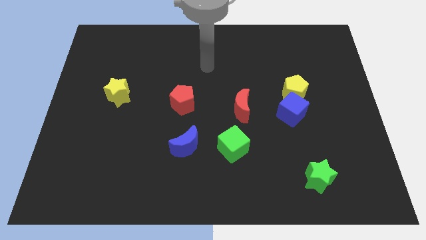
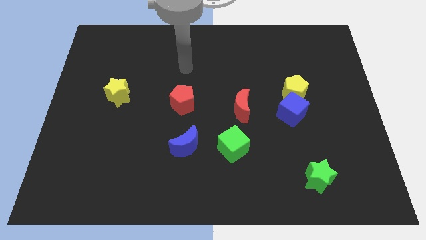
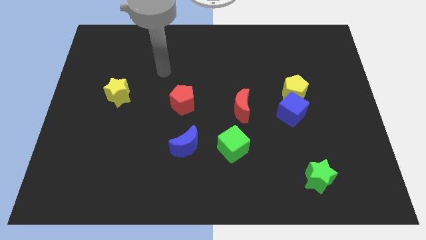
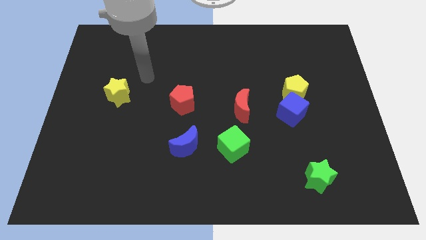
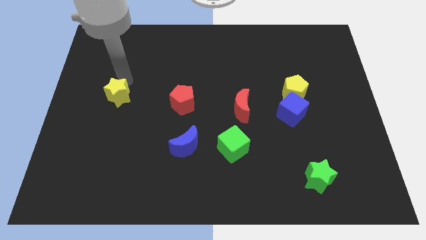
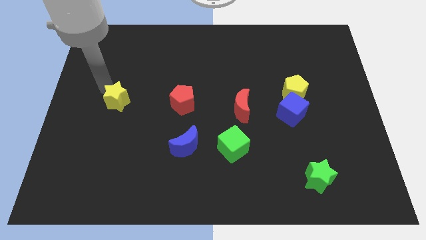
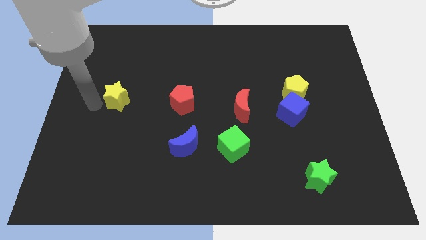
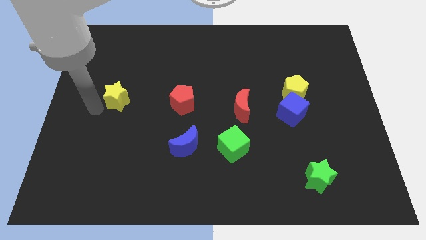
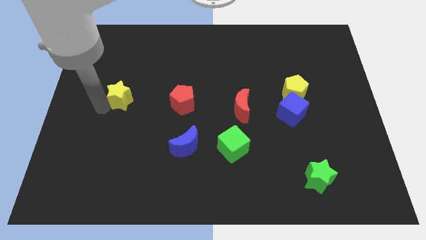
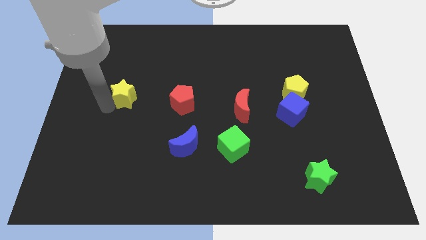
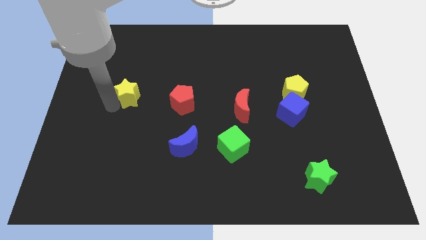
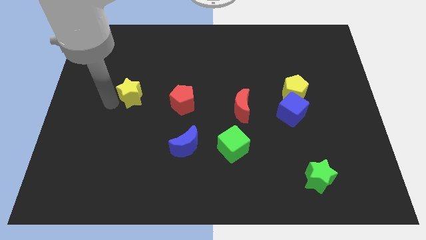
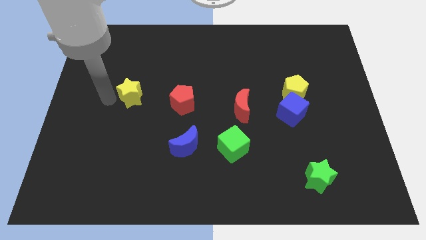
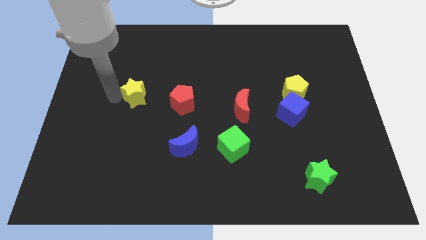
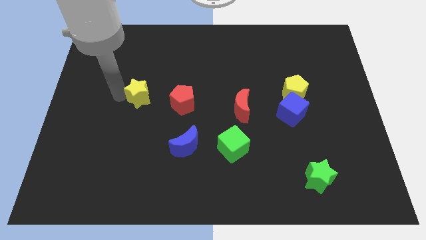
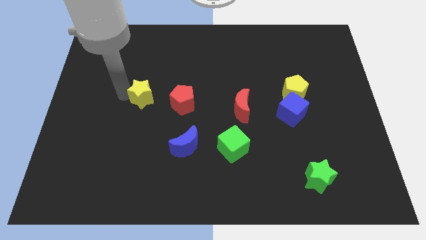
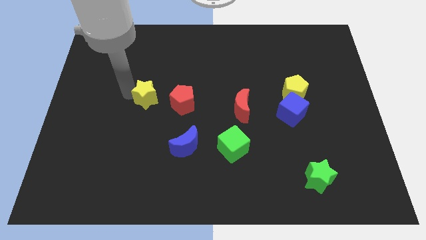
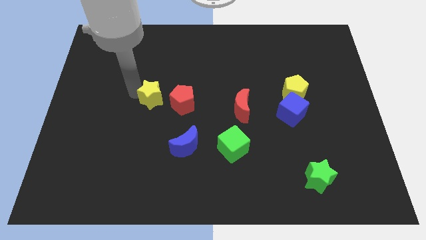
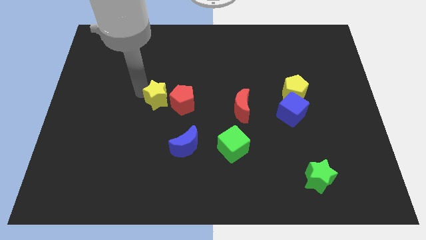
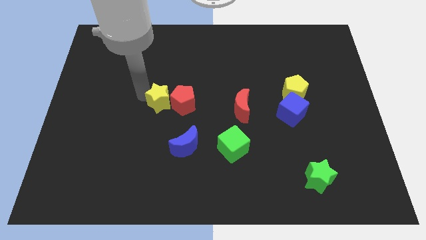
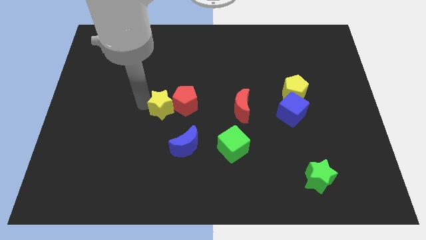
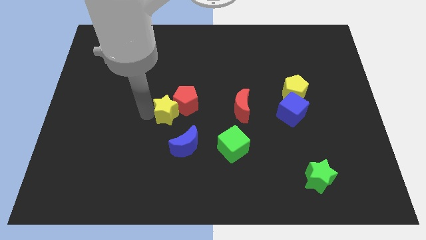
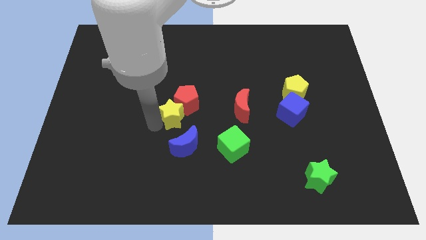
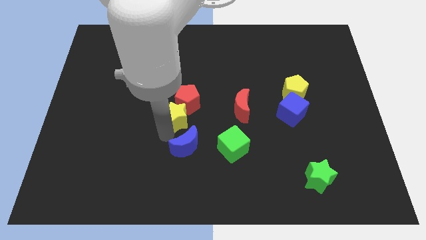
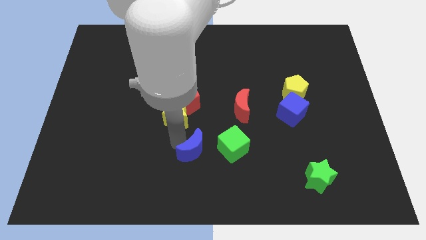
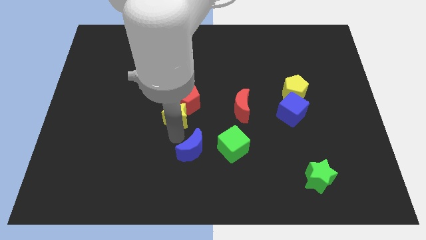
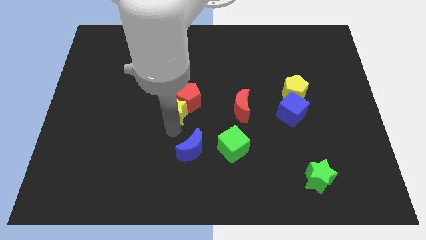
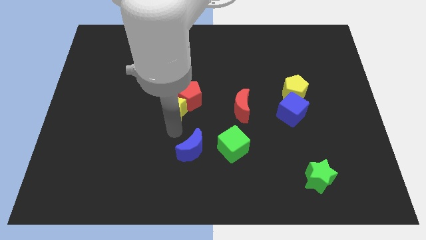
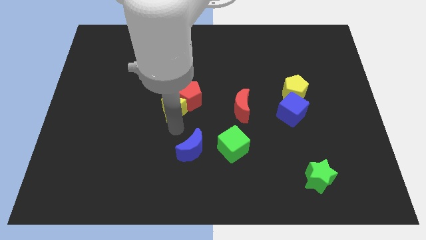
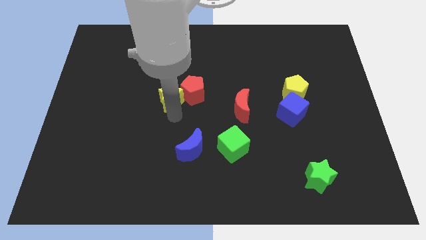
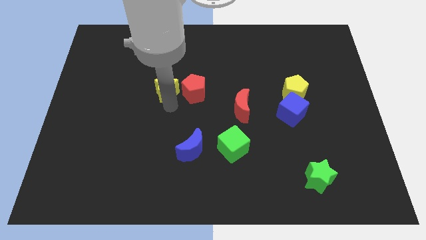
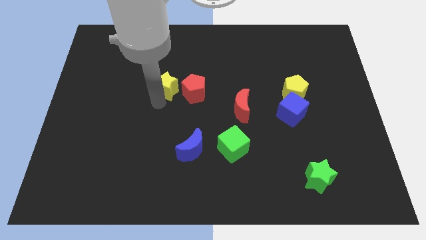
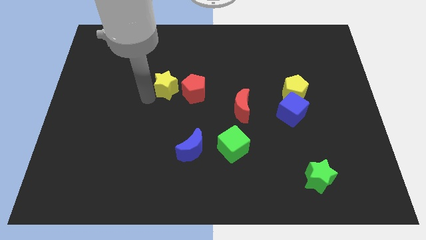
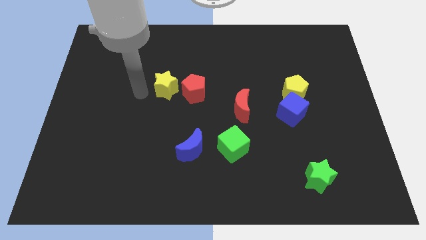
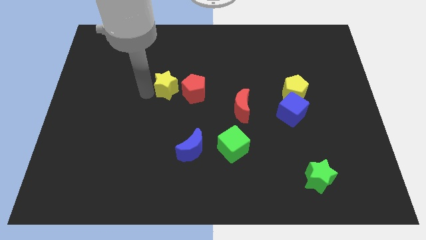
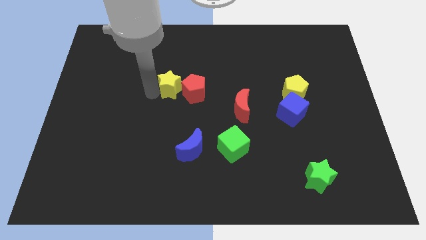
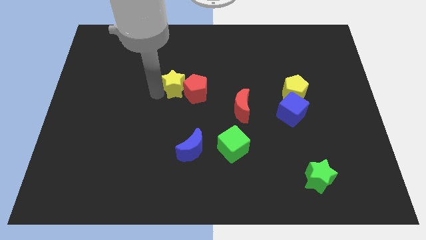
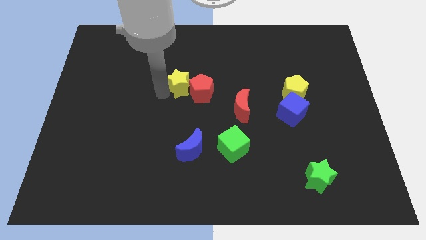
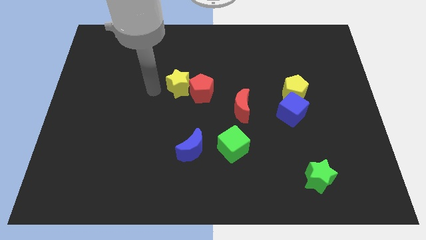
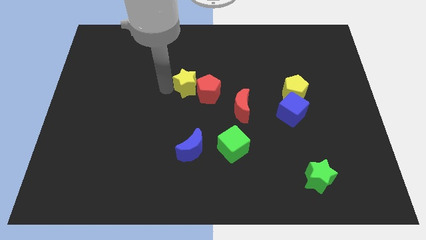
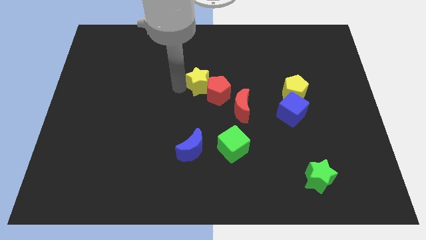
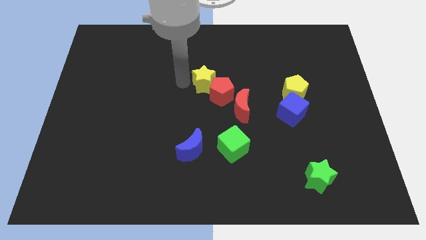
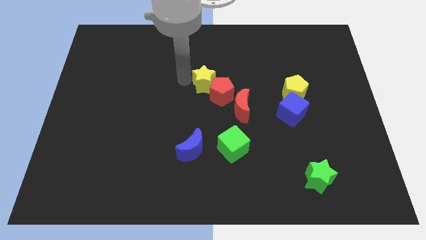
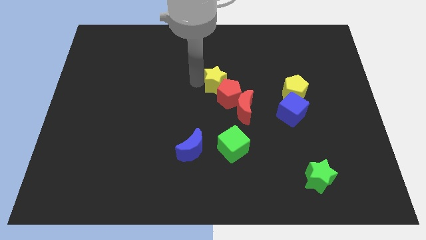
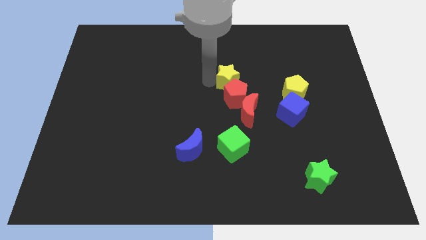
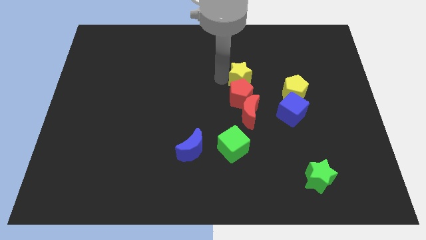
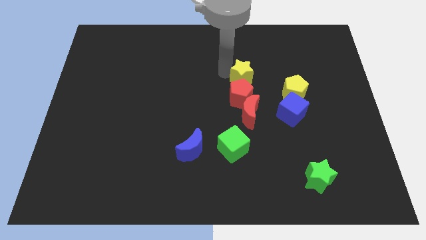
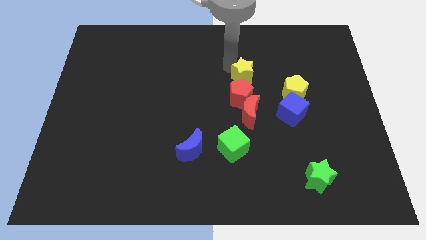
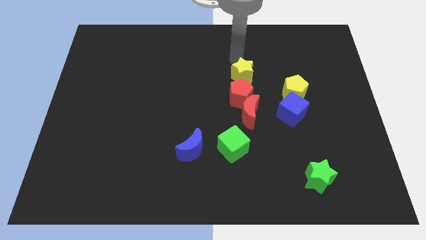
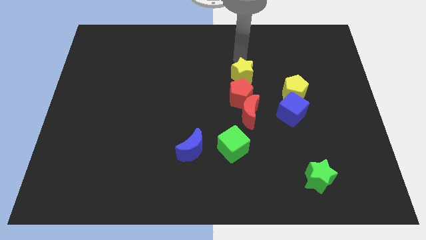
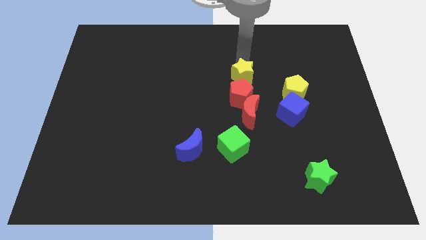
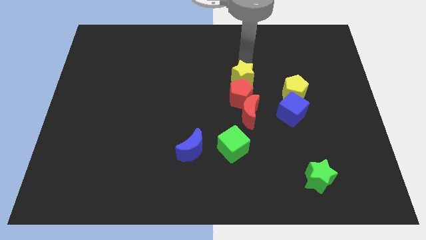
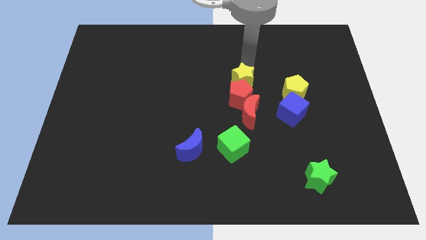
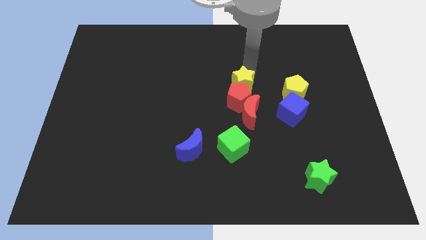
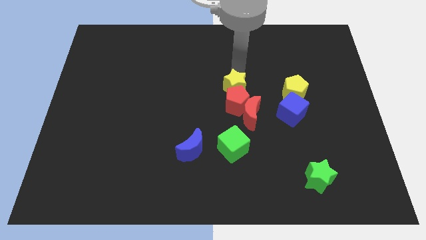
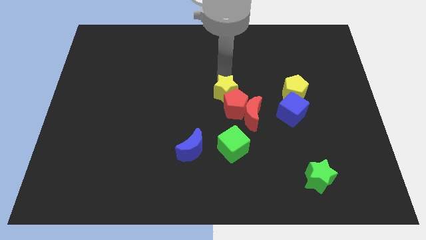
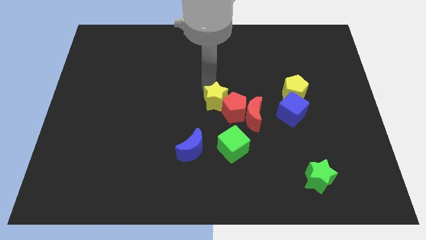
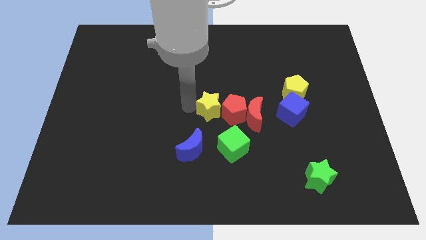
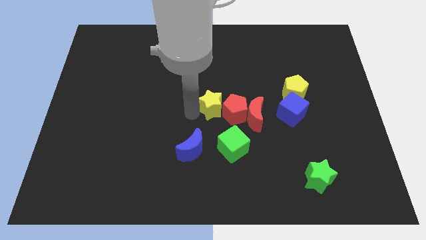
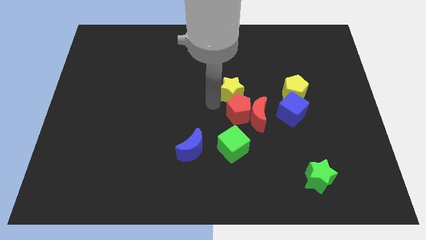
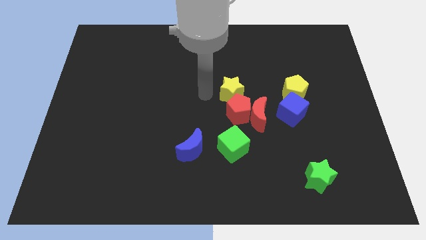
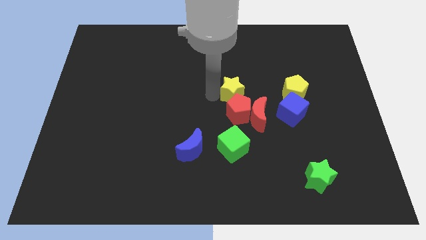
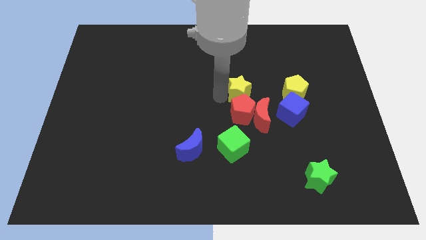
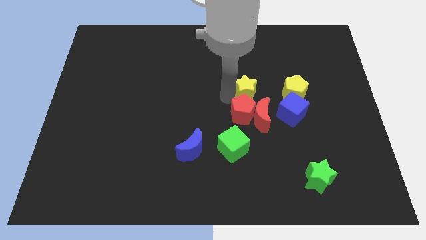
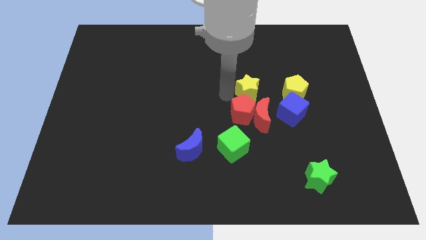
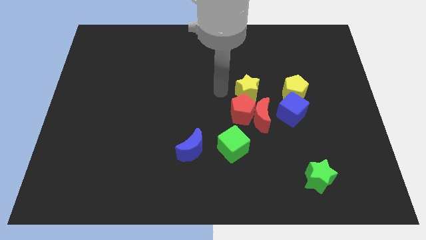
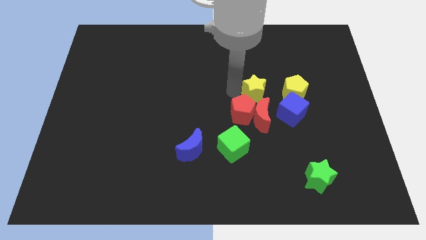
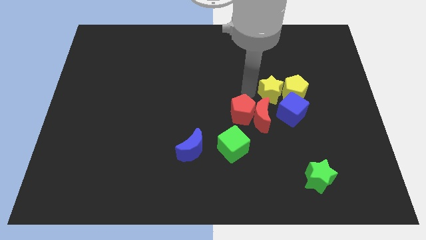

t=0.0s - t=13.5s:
push the yellow star close to the yellow pentagon
